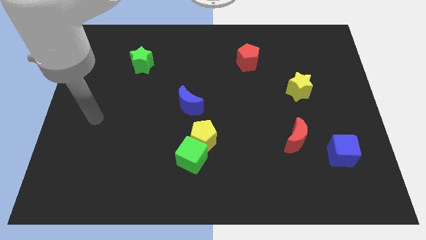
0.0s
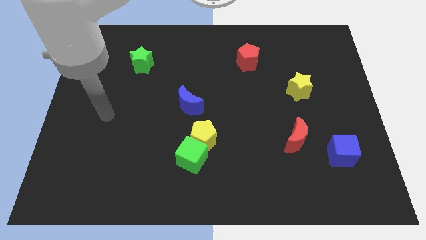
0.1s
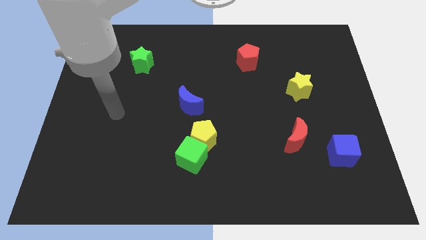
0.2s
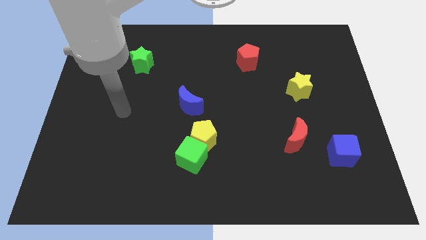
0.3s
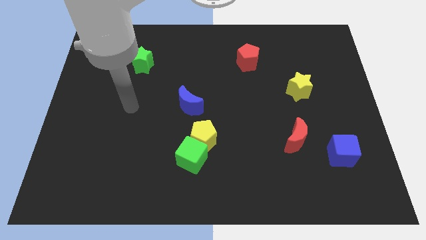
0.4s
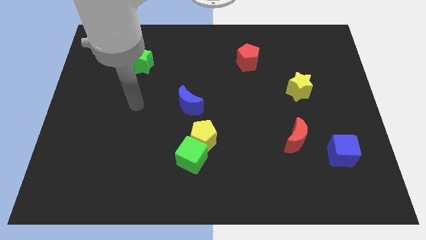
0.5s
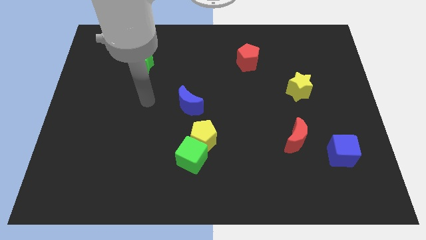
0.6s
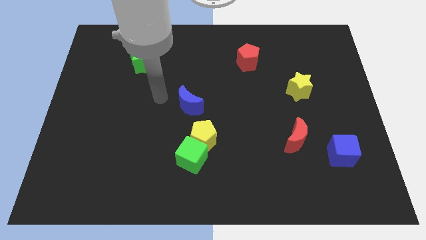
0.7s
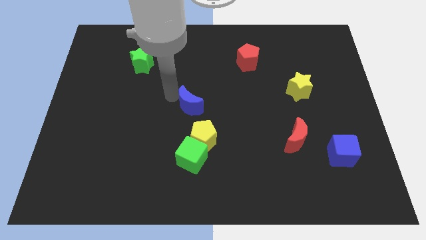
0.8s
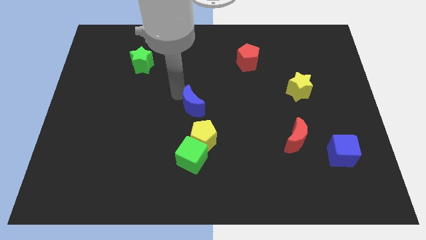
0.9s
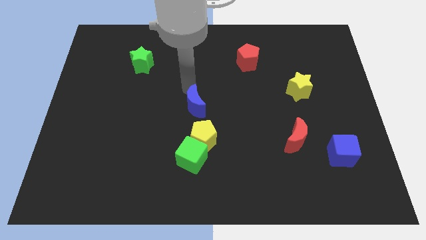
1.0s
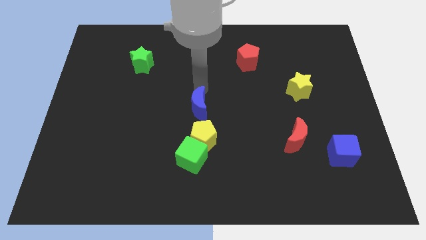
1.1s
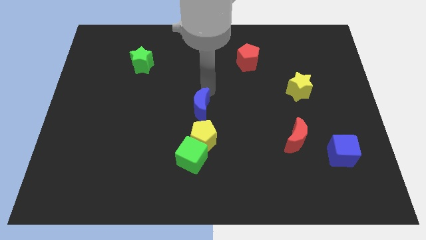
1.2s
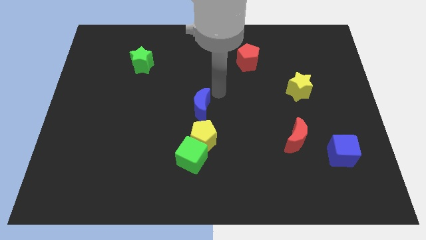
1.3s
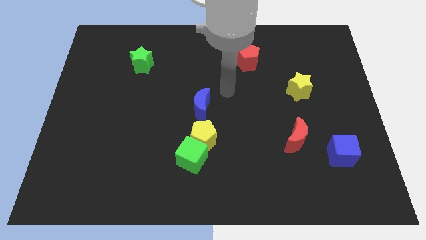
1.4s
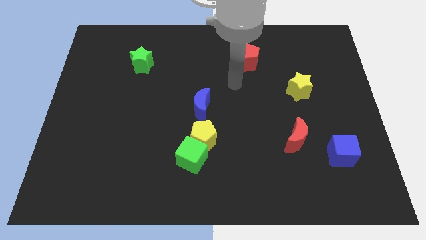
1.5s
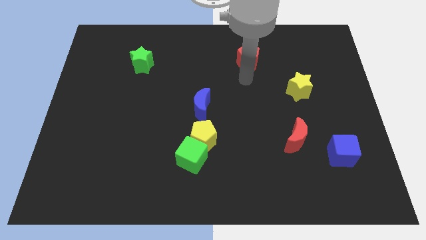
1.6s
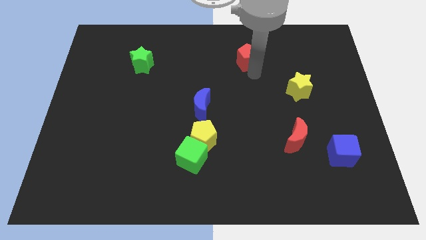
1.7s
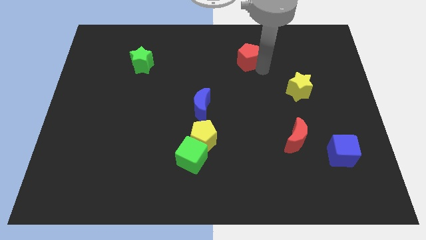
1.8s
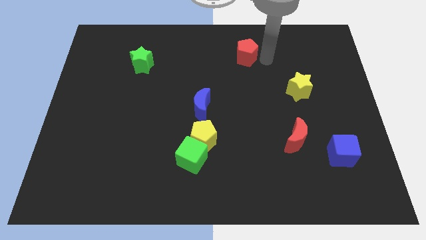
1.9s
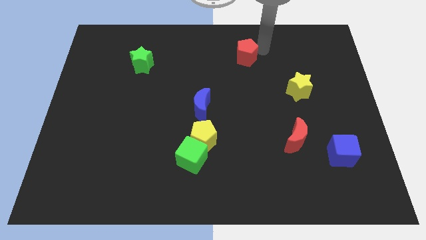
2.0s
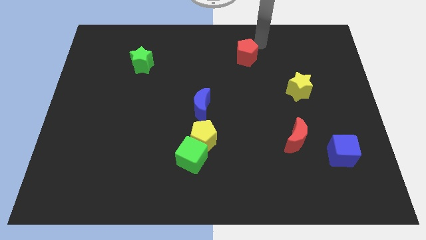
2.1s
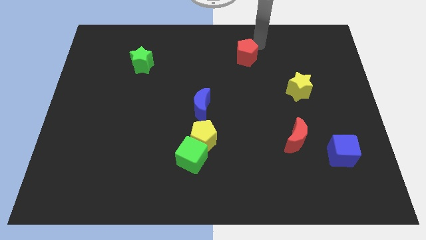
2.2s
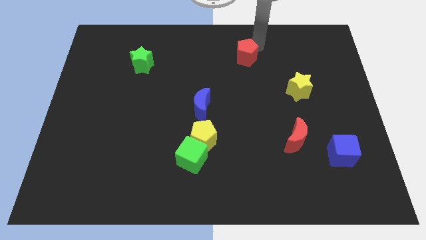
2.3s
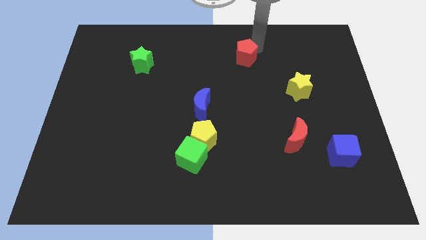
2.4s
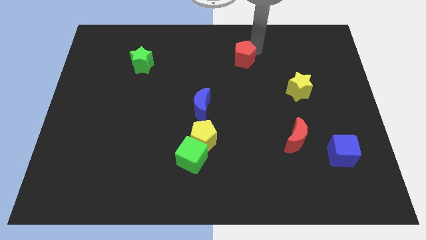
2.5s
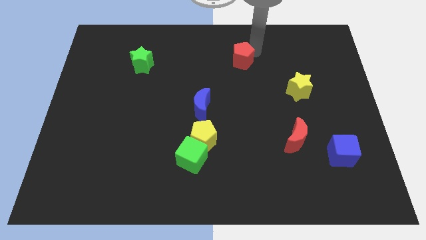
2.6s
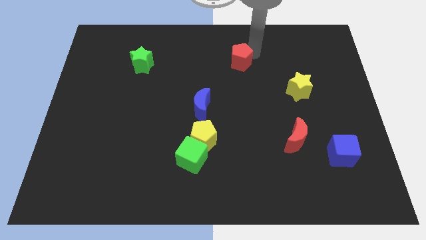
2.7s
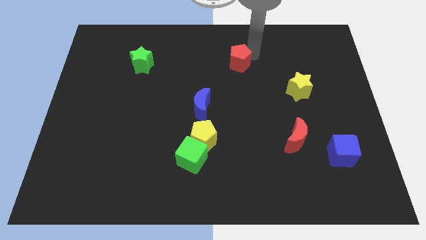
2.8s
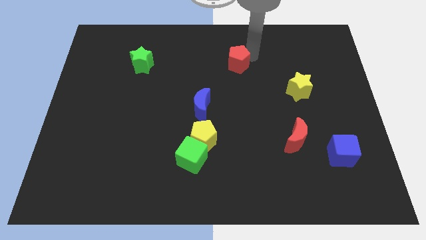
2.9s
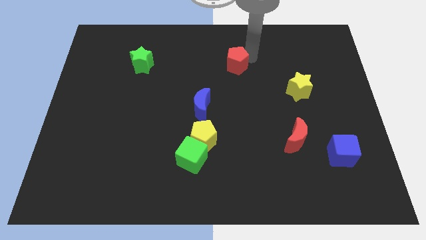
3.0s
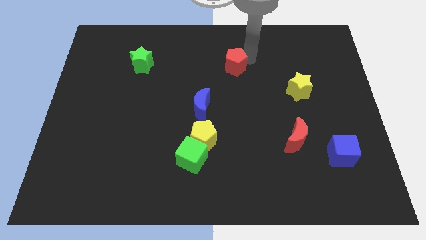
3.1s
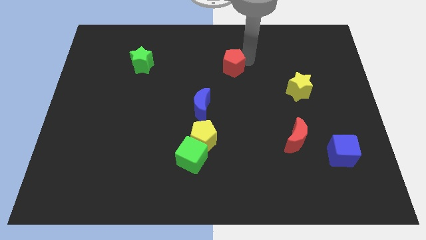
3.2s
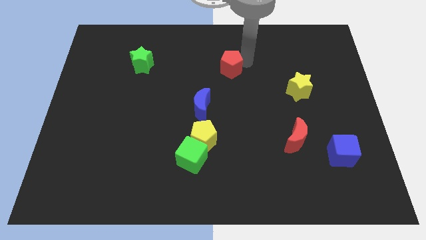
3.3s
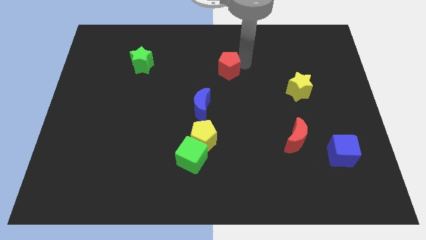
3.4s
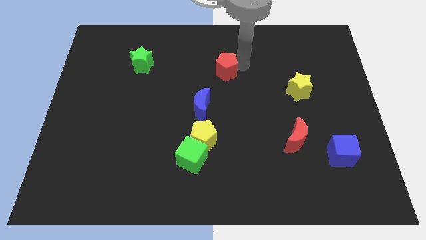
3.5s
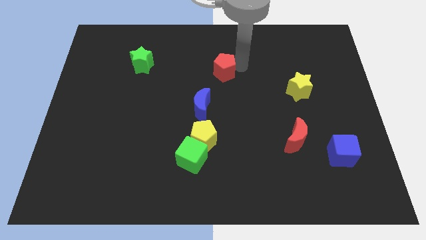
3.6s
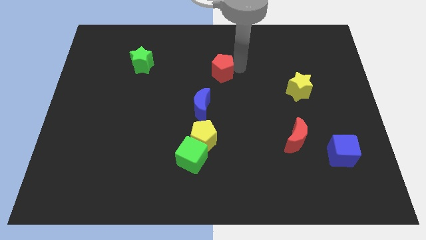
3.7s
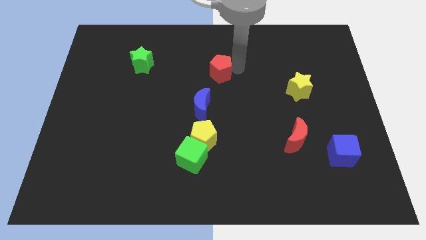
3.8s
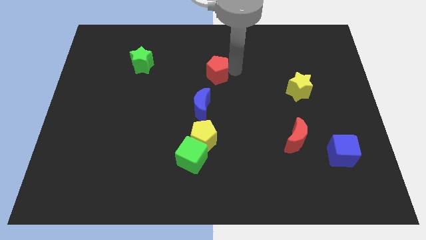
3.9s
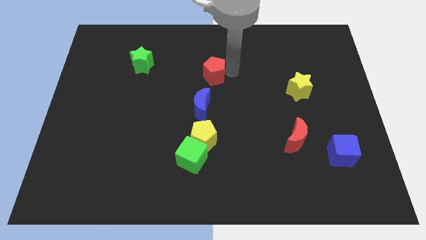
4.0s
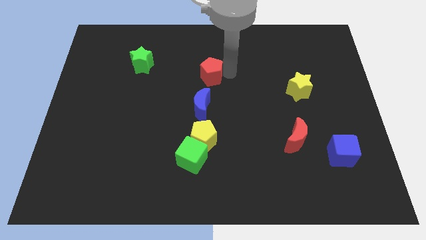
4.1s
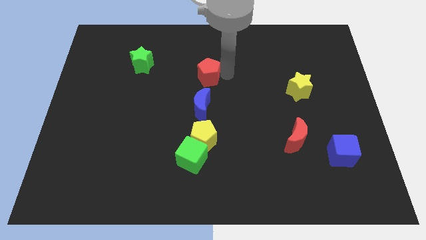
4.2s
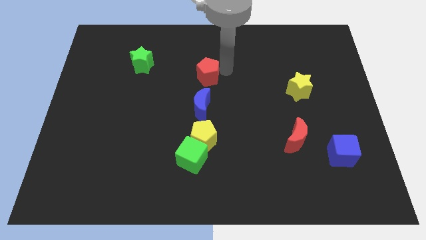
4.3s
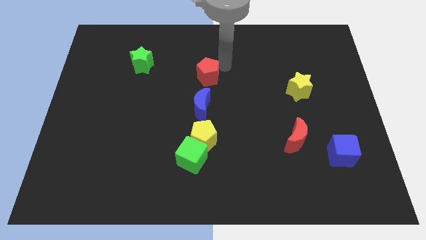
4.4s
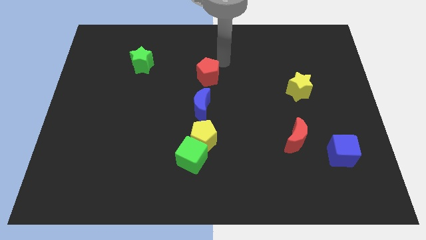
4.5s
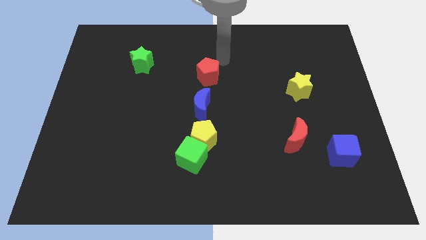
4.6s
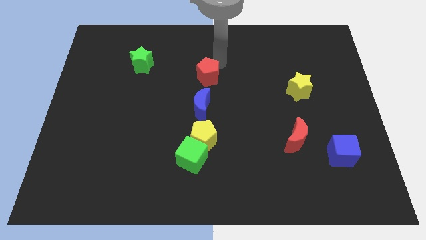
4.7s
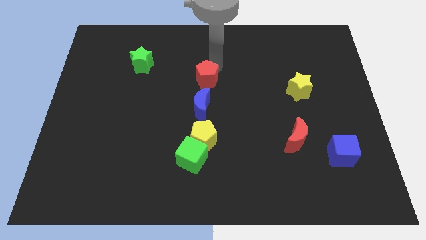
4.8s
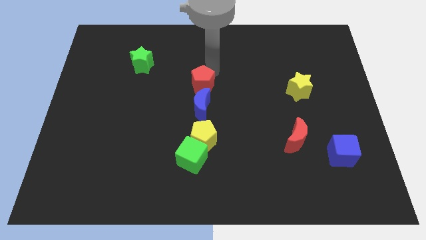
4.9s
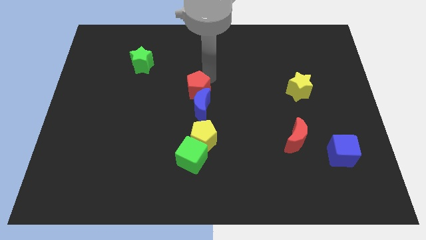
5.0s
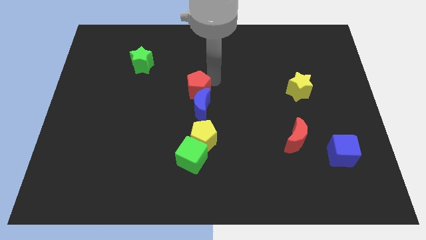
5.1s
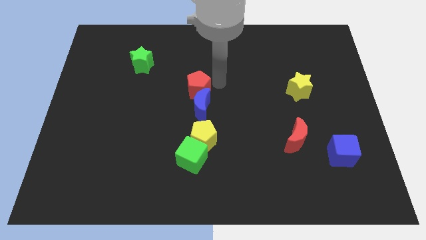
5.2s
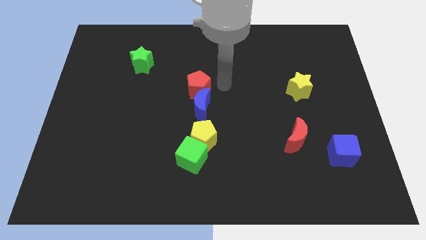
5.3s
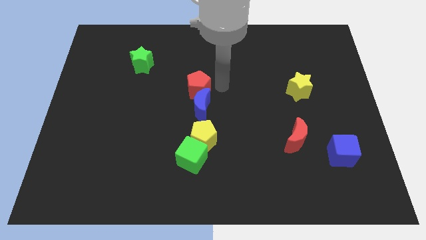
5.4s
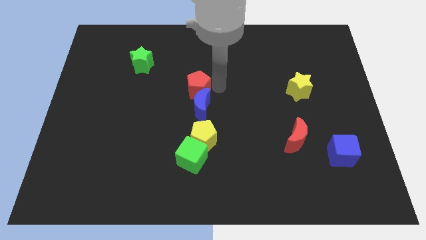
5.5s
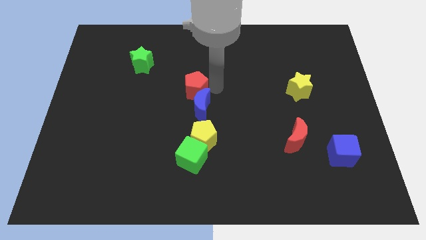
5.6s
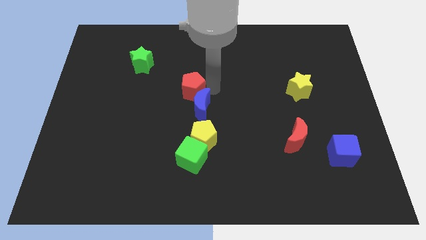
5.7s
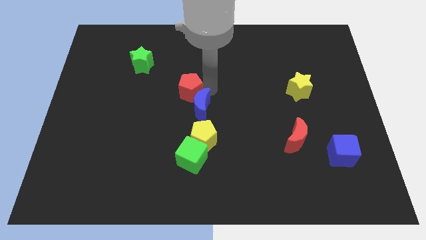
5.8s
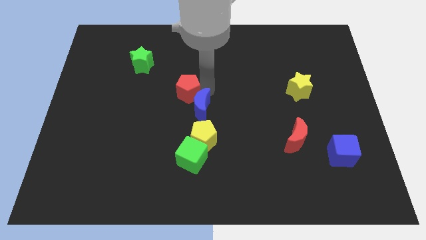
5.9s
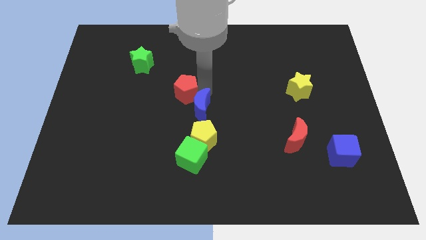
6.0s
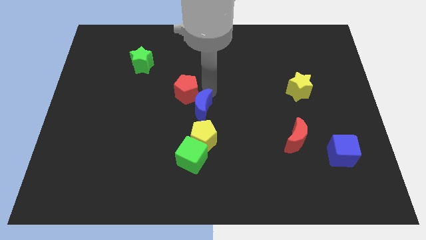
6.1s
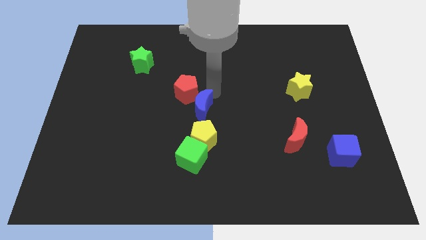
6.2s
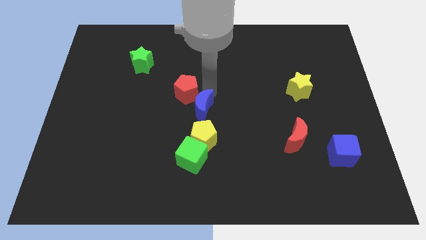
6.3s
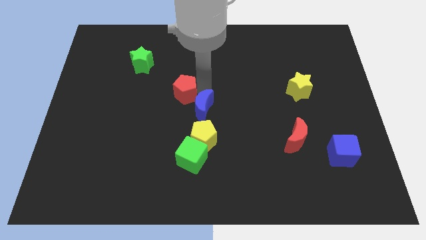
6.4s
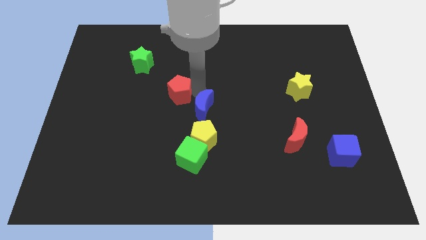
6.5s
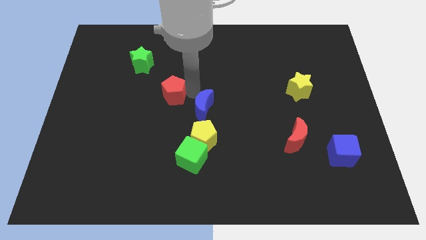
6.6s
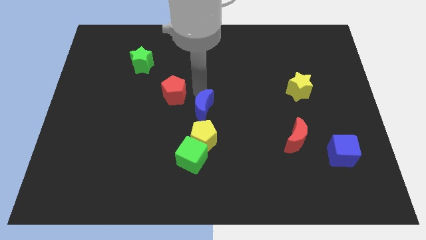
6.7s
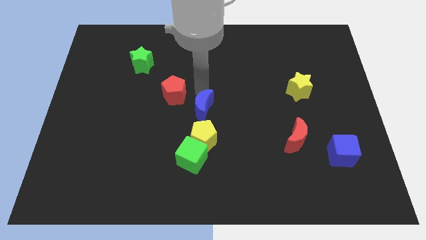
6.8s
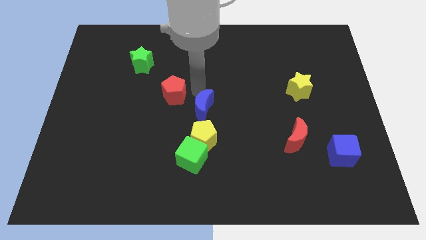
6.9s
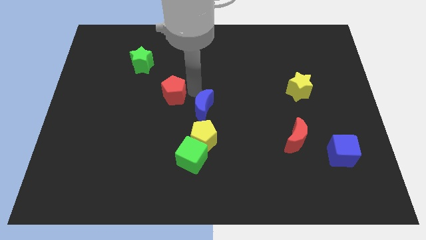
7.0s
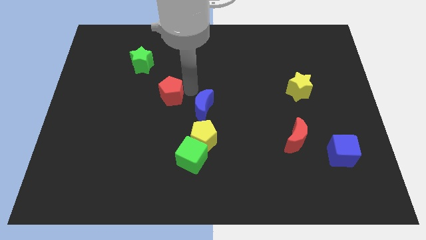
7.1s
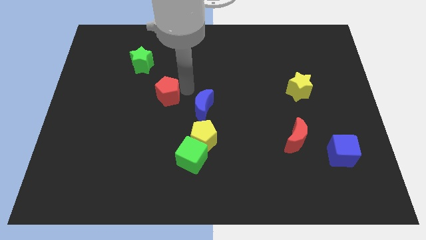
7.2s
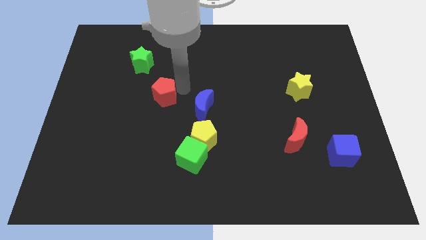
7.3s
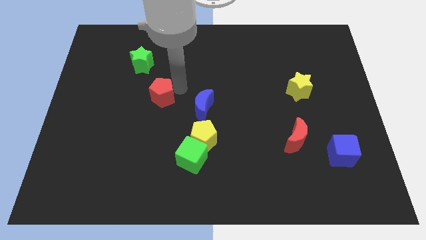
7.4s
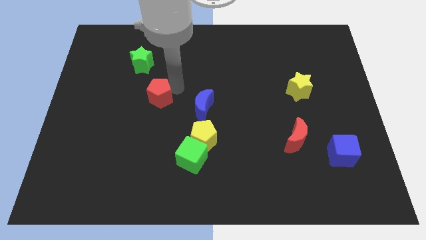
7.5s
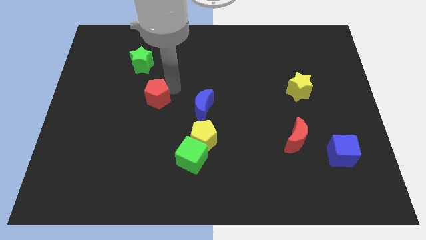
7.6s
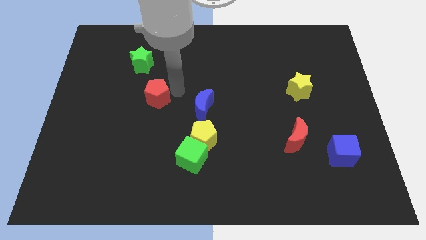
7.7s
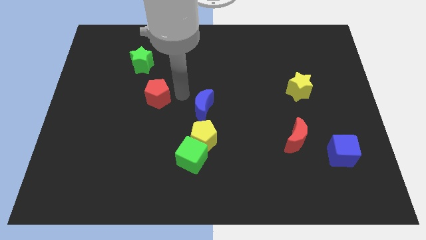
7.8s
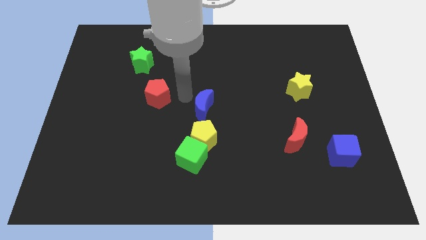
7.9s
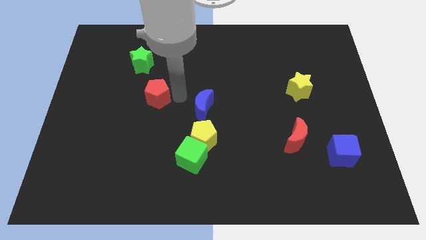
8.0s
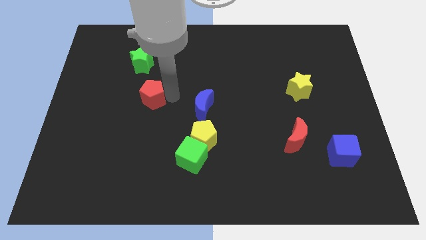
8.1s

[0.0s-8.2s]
push the red pentagon to the bottom side of the green star
